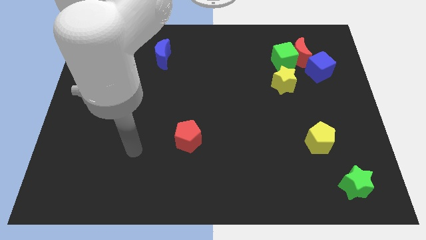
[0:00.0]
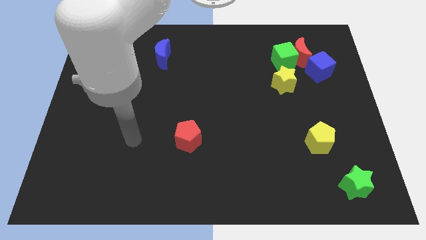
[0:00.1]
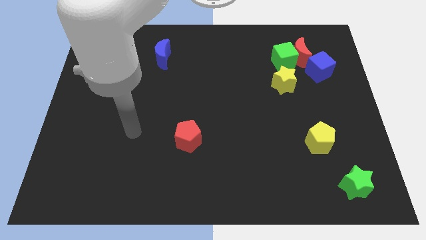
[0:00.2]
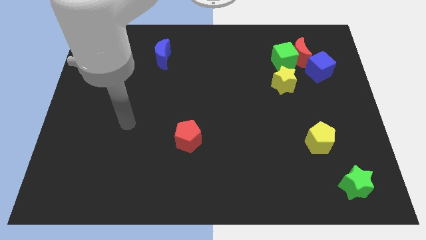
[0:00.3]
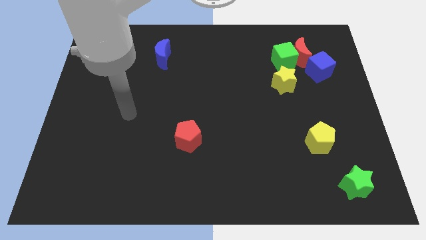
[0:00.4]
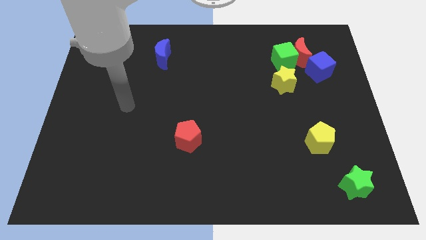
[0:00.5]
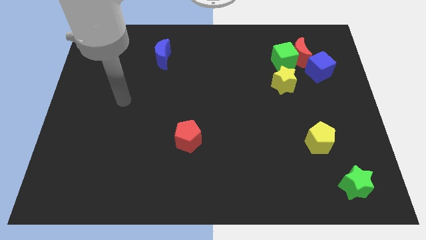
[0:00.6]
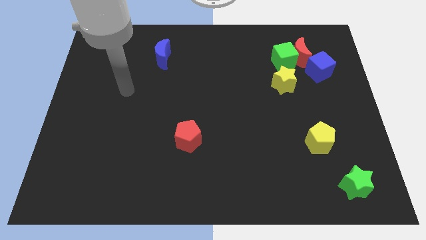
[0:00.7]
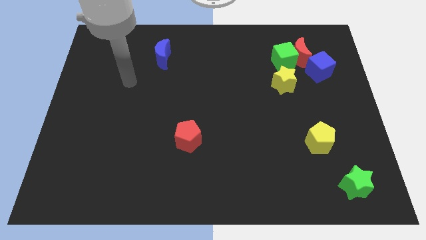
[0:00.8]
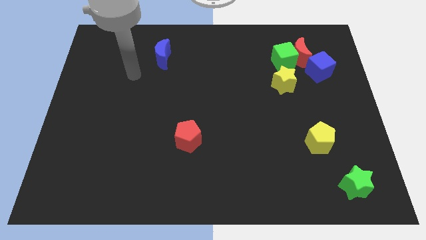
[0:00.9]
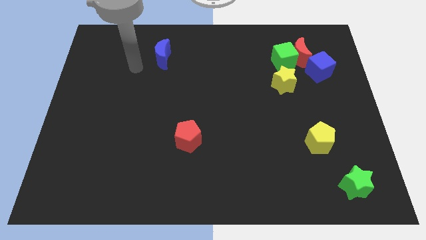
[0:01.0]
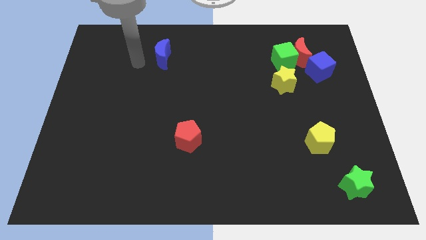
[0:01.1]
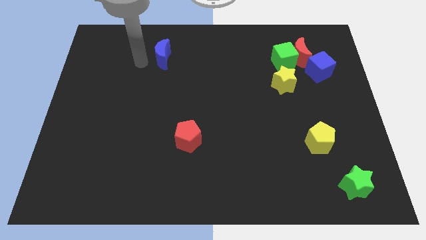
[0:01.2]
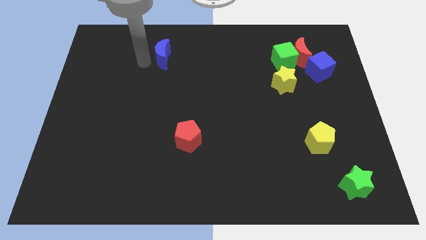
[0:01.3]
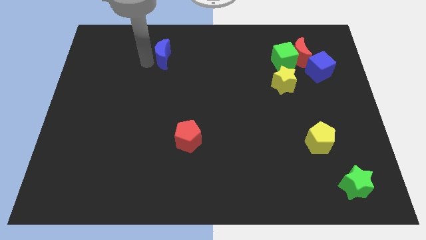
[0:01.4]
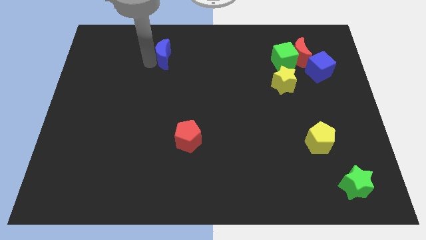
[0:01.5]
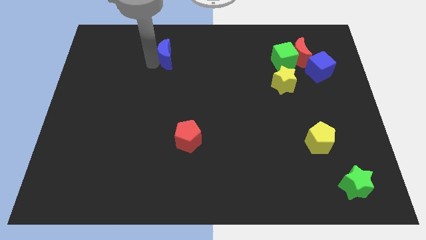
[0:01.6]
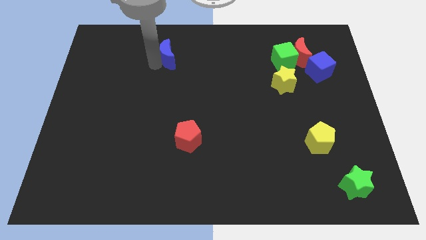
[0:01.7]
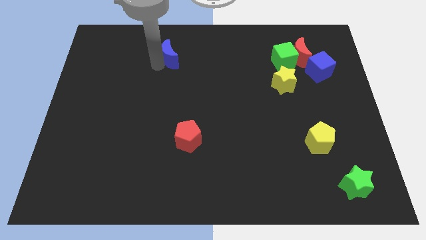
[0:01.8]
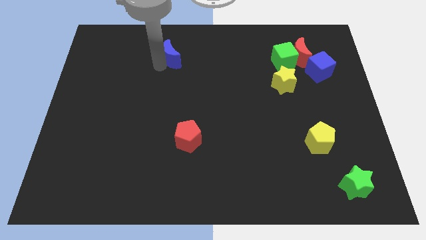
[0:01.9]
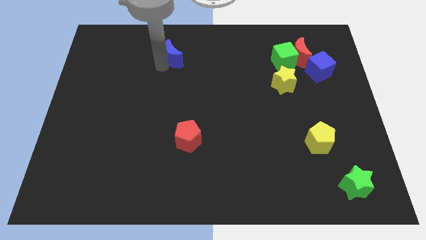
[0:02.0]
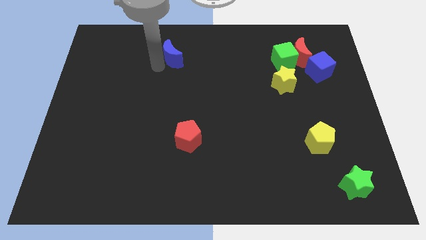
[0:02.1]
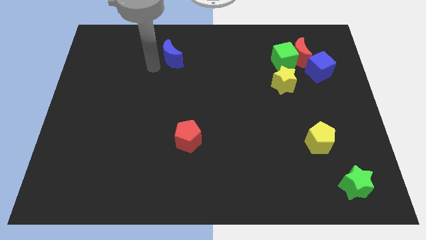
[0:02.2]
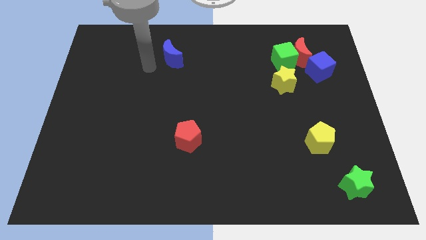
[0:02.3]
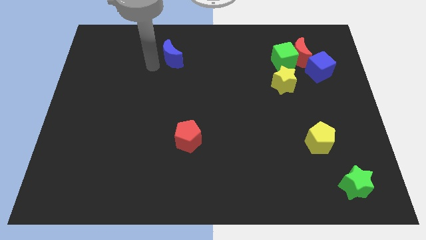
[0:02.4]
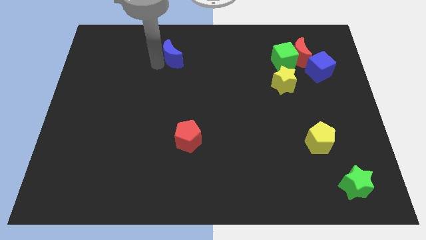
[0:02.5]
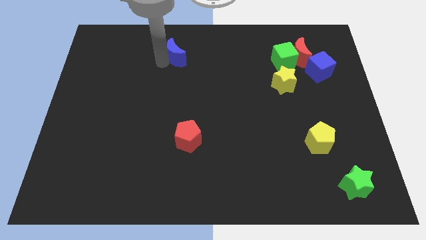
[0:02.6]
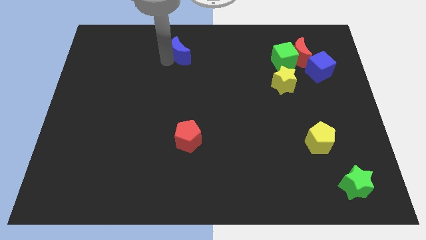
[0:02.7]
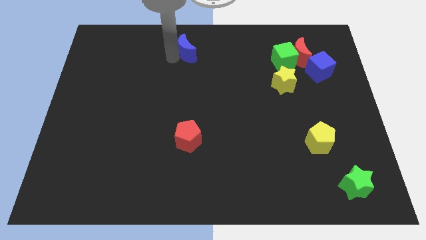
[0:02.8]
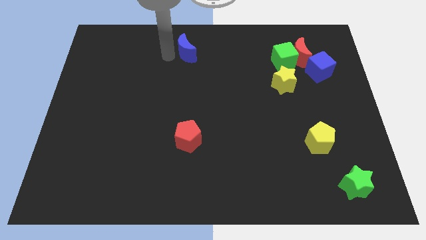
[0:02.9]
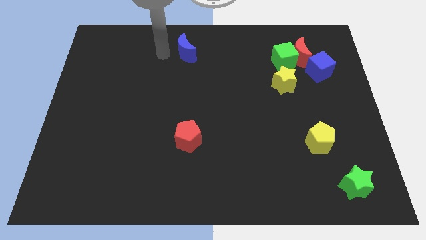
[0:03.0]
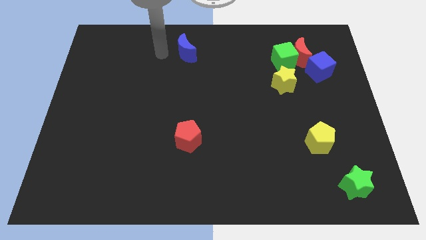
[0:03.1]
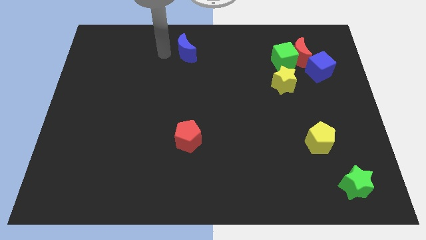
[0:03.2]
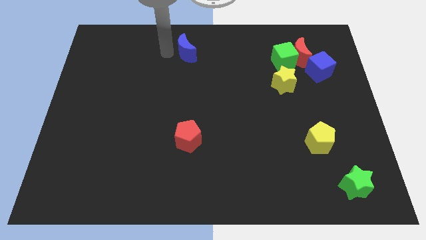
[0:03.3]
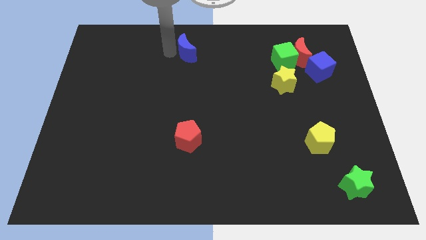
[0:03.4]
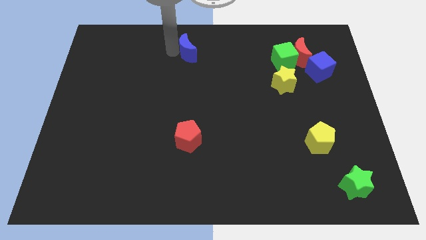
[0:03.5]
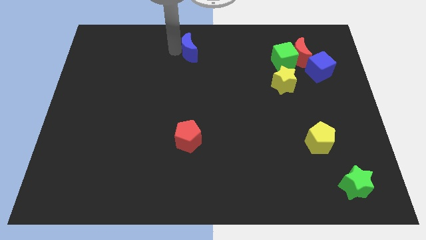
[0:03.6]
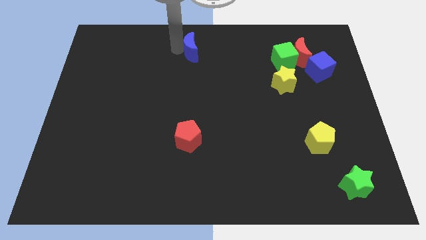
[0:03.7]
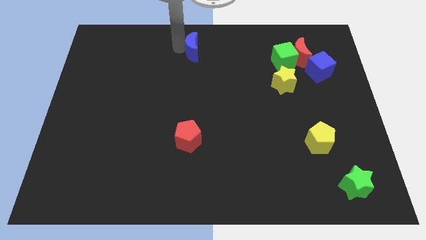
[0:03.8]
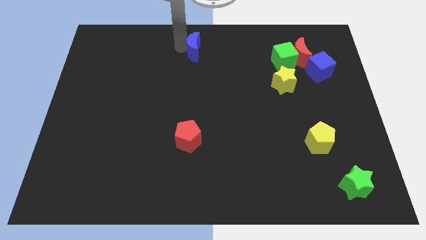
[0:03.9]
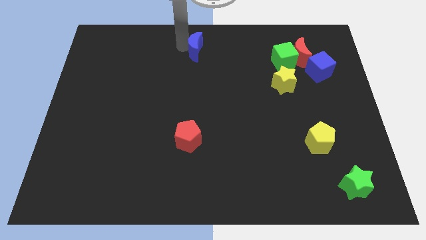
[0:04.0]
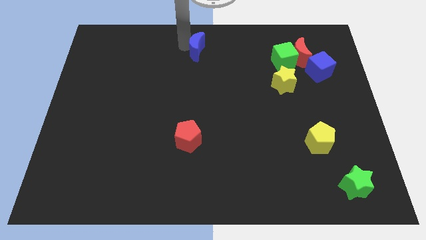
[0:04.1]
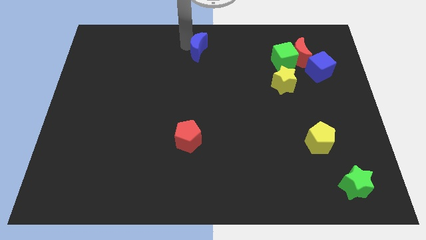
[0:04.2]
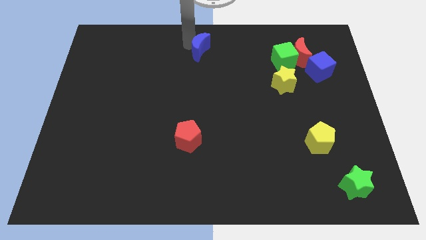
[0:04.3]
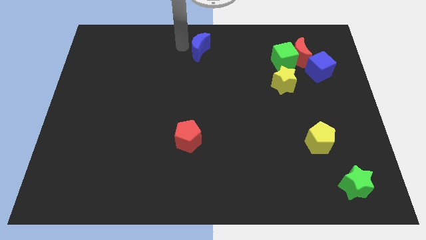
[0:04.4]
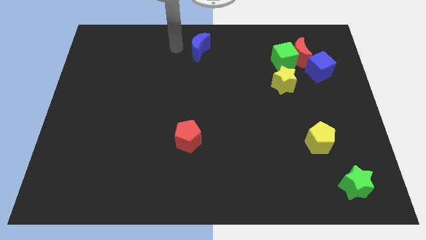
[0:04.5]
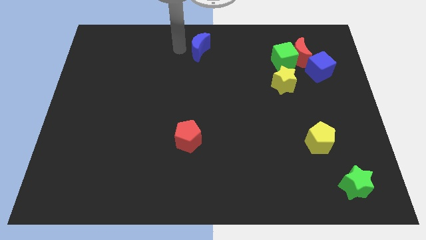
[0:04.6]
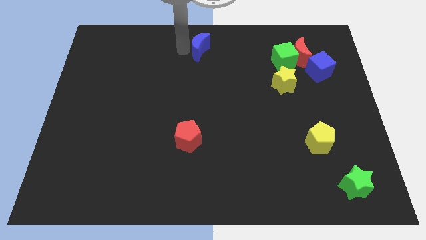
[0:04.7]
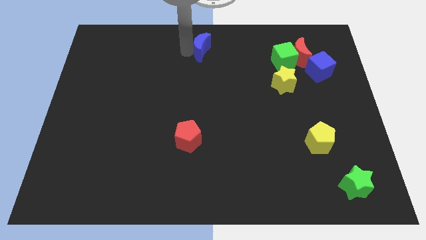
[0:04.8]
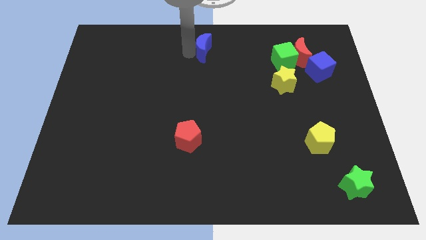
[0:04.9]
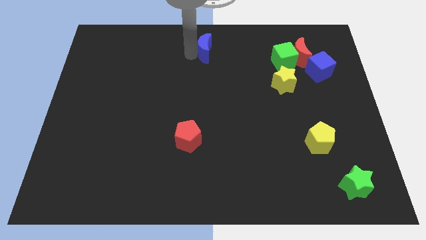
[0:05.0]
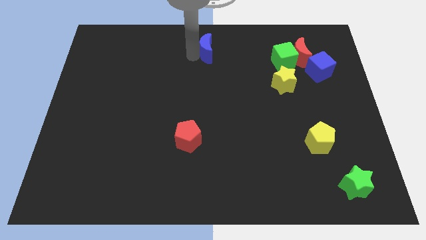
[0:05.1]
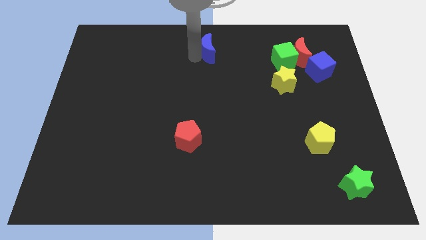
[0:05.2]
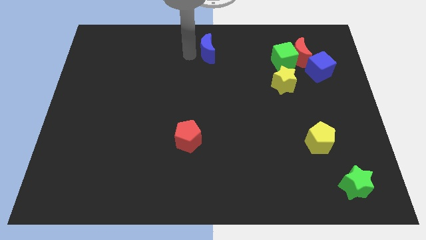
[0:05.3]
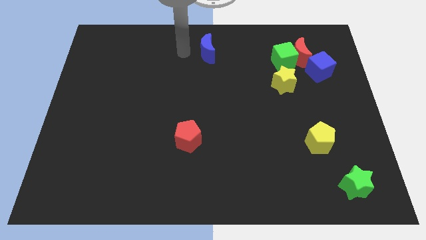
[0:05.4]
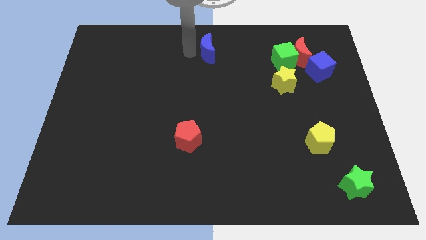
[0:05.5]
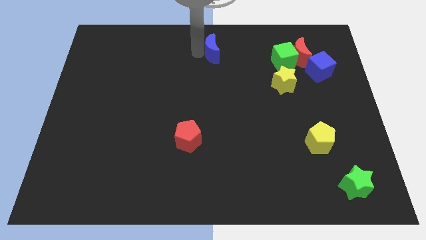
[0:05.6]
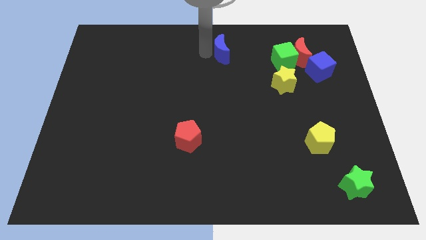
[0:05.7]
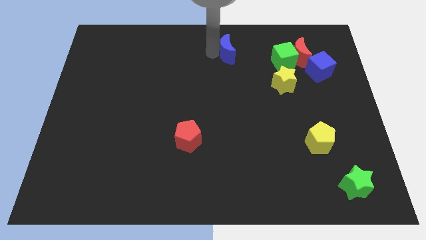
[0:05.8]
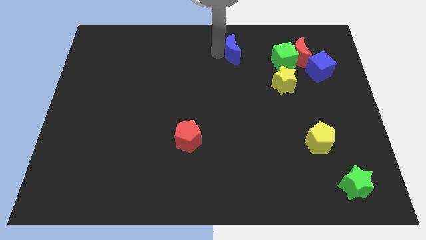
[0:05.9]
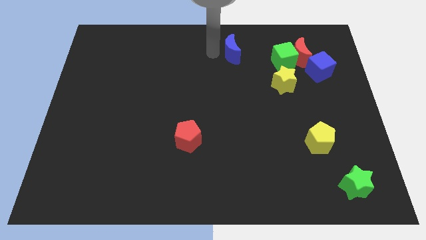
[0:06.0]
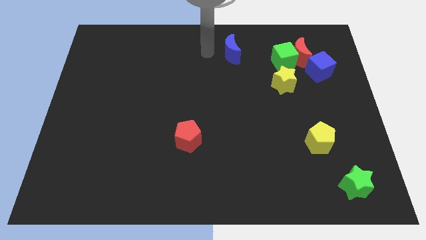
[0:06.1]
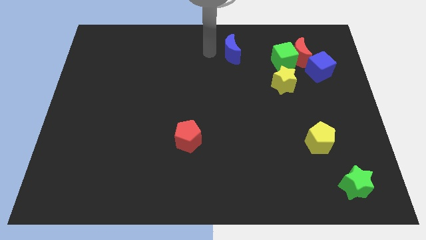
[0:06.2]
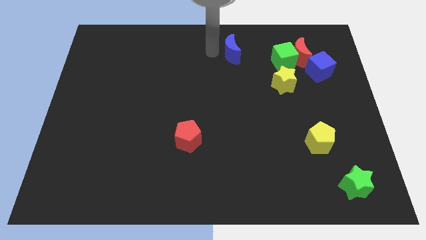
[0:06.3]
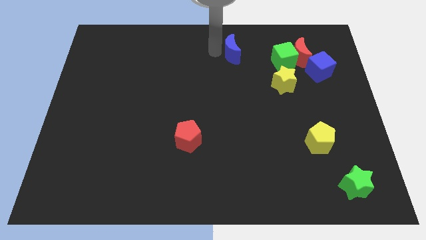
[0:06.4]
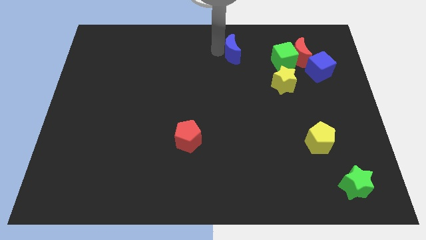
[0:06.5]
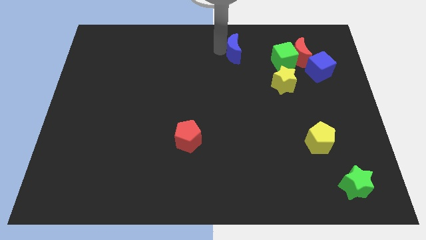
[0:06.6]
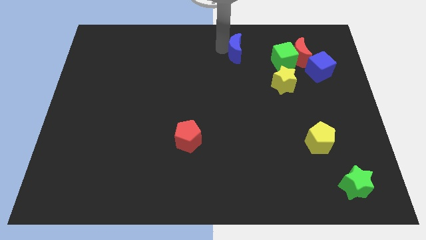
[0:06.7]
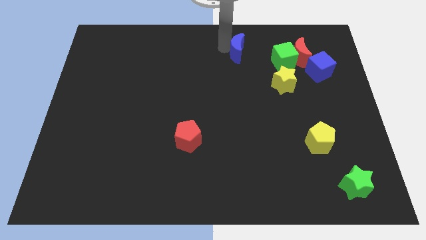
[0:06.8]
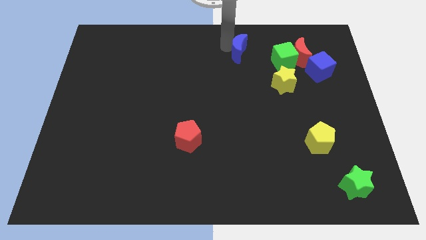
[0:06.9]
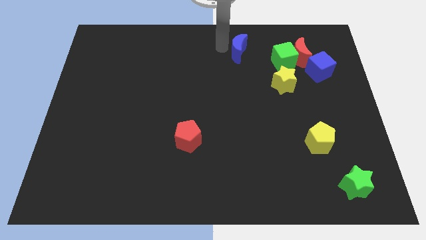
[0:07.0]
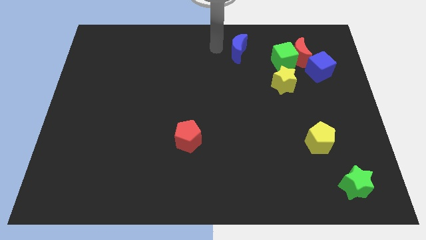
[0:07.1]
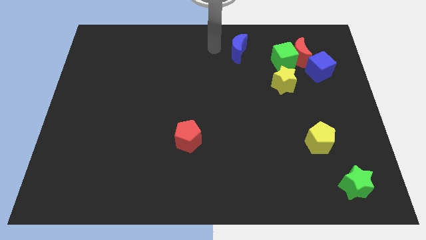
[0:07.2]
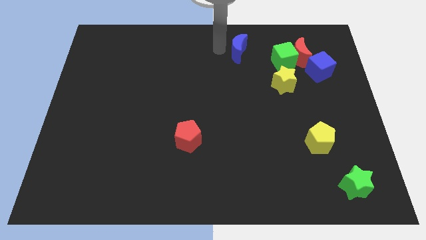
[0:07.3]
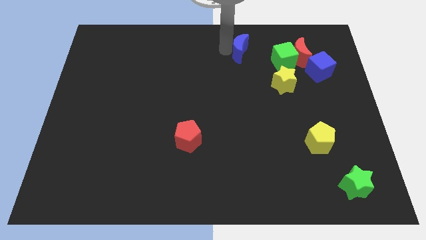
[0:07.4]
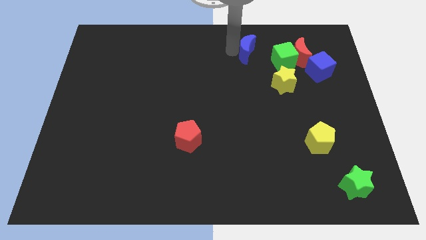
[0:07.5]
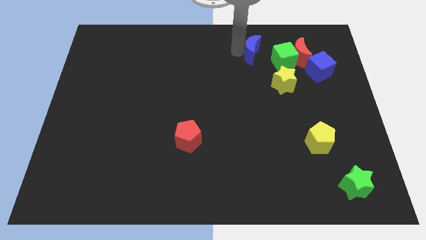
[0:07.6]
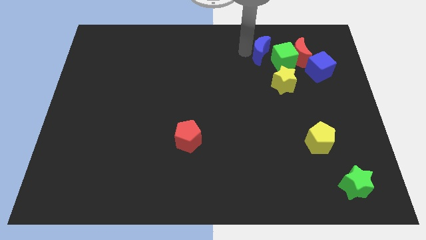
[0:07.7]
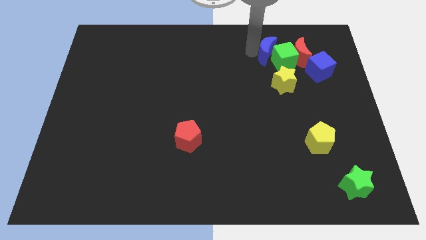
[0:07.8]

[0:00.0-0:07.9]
put the blue moon next to the green cube
